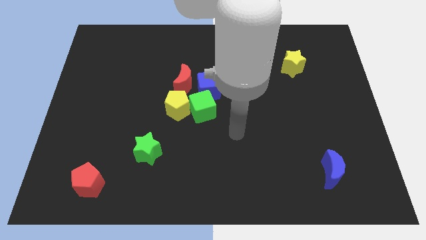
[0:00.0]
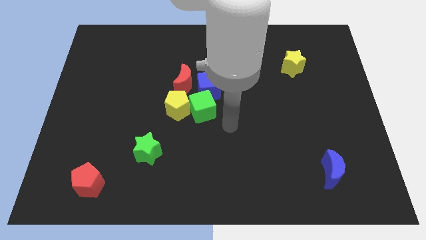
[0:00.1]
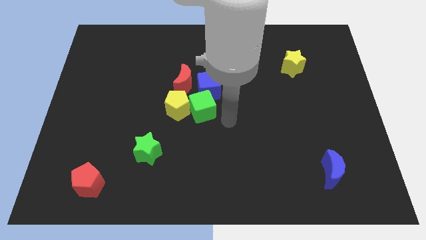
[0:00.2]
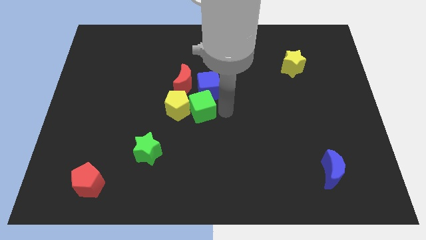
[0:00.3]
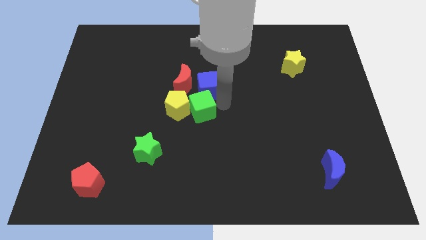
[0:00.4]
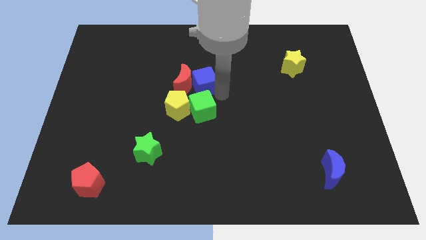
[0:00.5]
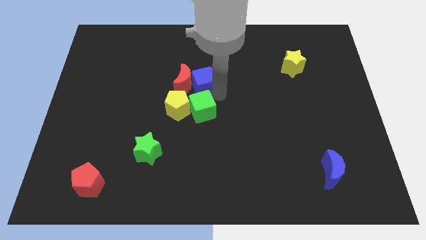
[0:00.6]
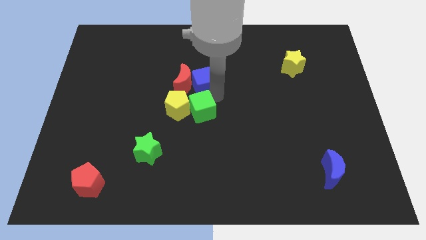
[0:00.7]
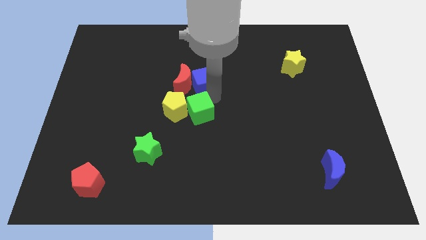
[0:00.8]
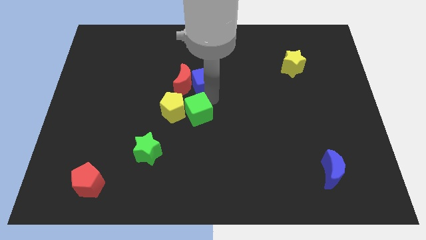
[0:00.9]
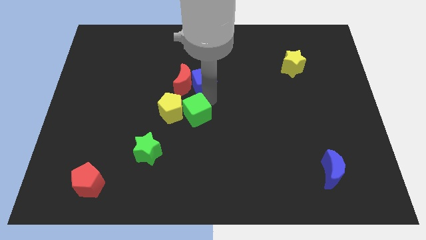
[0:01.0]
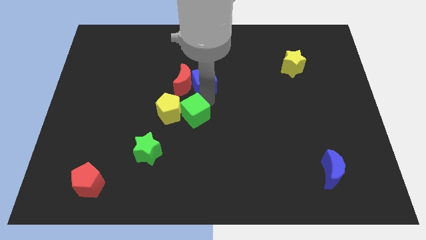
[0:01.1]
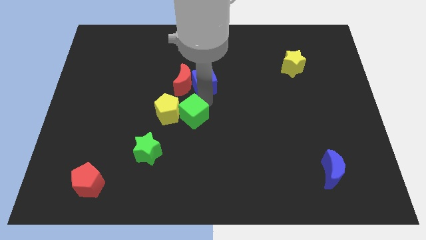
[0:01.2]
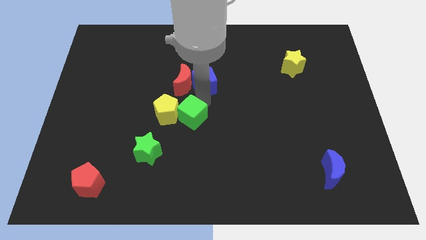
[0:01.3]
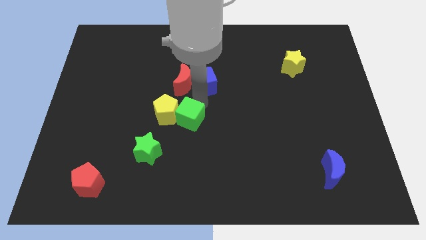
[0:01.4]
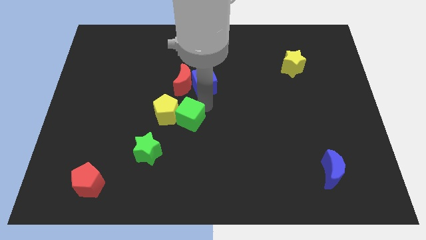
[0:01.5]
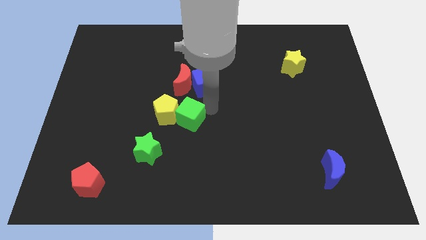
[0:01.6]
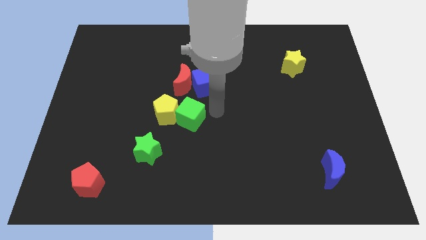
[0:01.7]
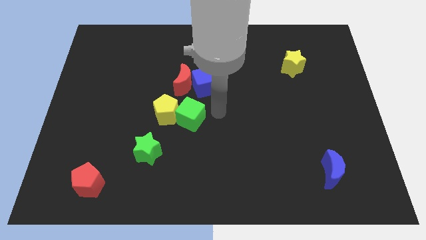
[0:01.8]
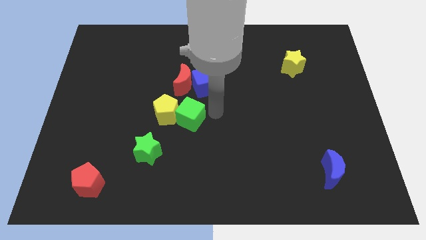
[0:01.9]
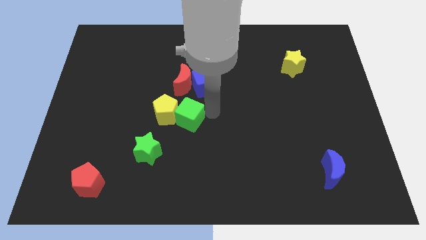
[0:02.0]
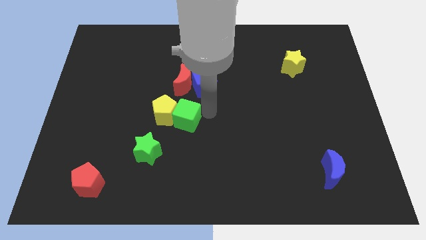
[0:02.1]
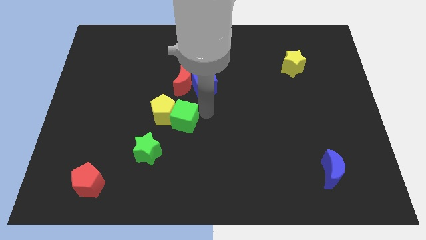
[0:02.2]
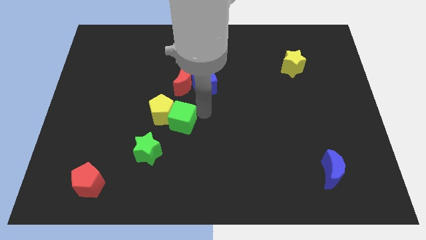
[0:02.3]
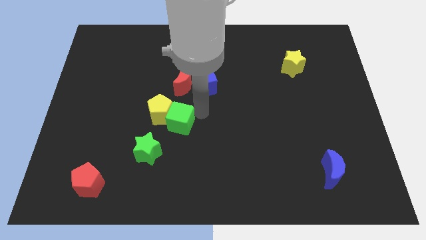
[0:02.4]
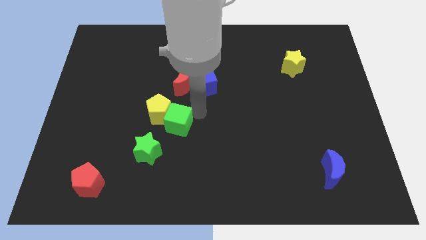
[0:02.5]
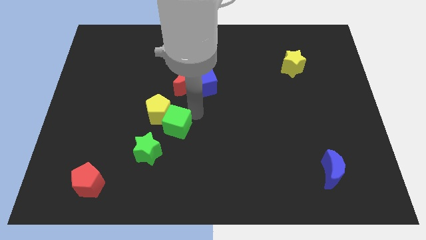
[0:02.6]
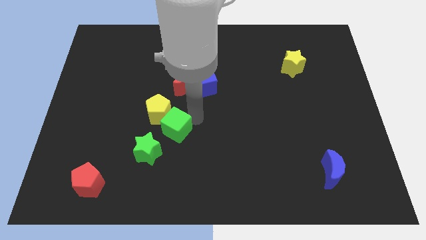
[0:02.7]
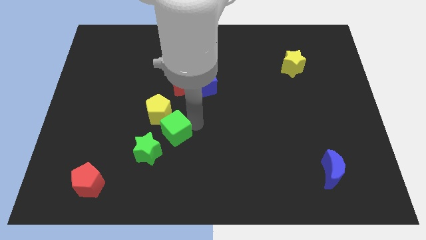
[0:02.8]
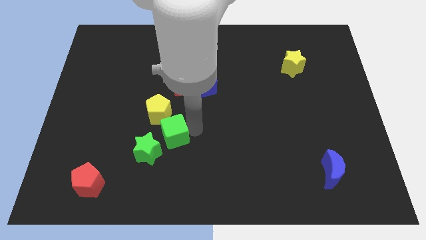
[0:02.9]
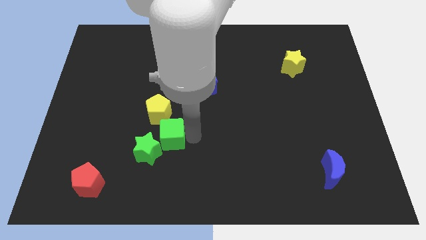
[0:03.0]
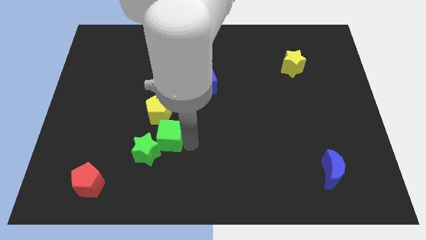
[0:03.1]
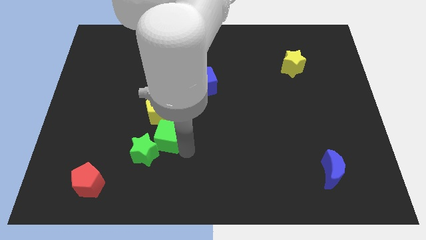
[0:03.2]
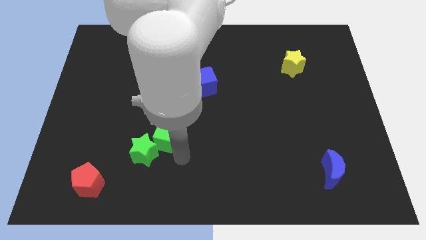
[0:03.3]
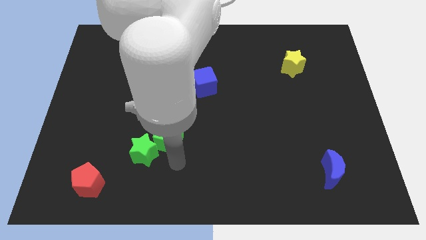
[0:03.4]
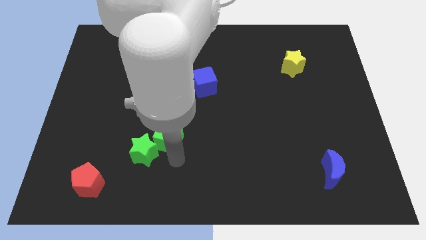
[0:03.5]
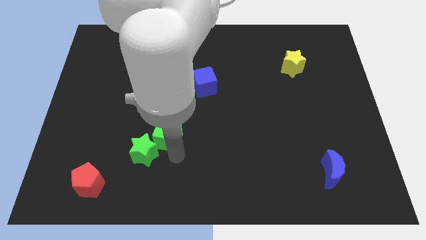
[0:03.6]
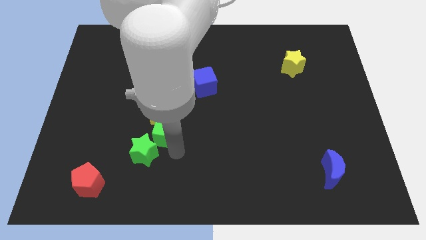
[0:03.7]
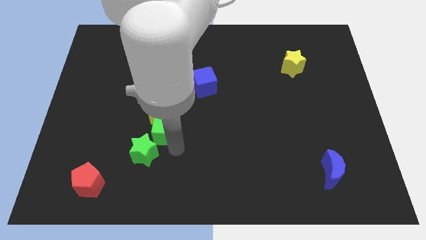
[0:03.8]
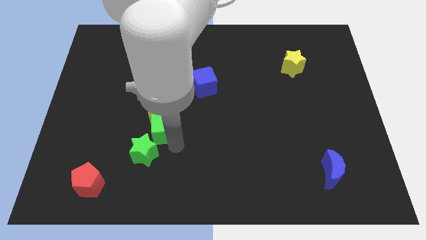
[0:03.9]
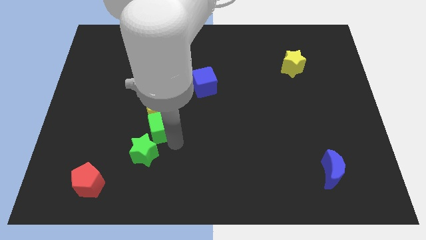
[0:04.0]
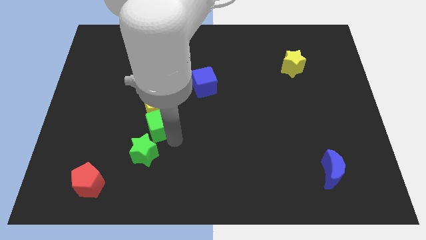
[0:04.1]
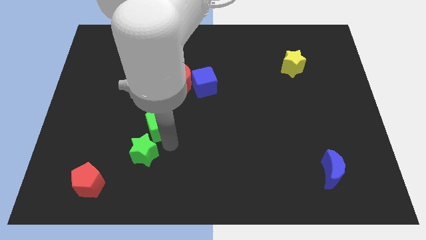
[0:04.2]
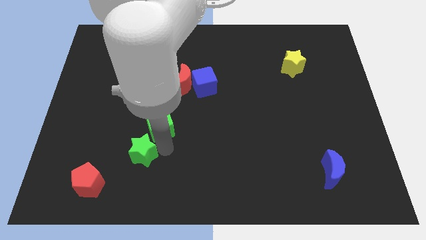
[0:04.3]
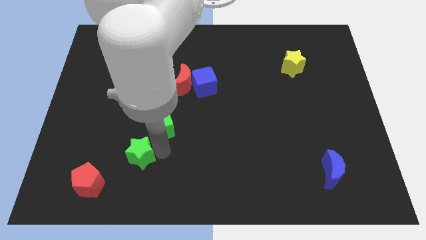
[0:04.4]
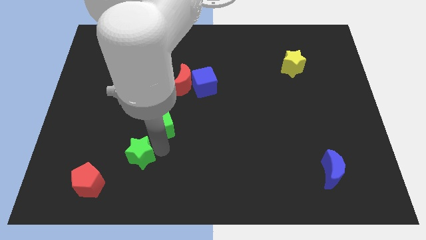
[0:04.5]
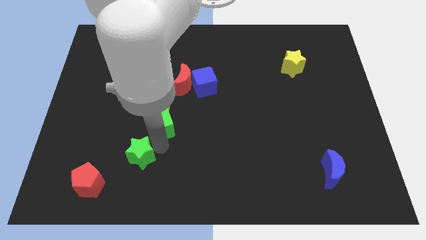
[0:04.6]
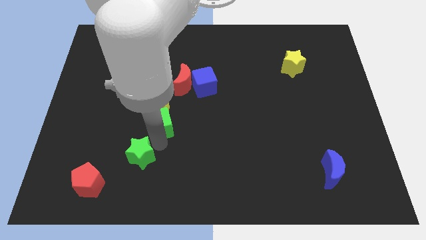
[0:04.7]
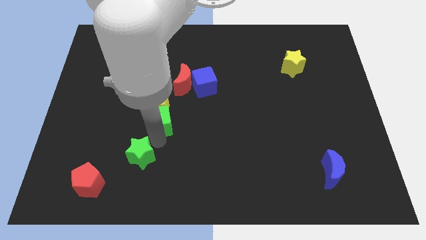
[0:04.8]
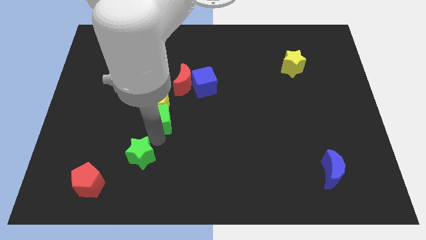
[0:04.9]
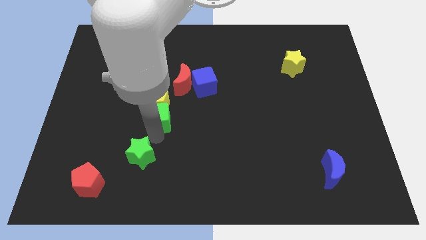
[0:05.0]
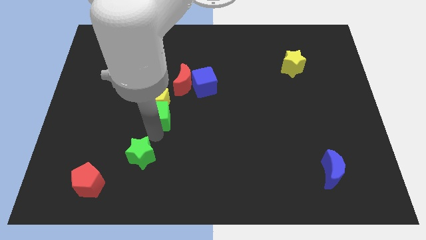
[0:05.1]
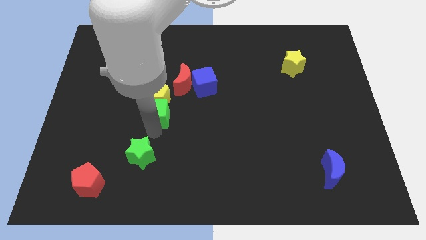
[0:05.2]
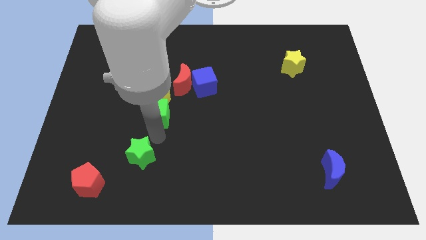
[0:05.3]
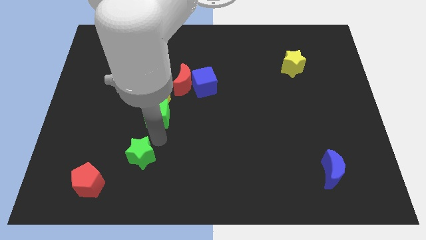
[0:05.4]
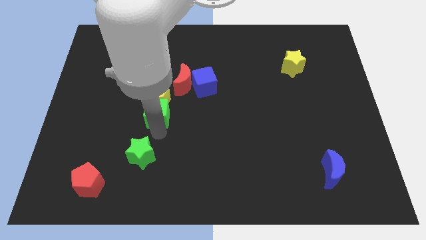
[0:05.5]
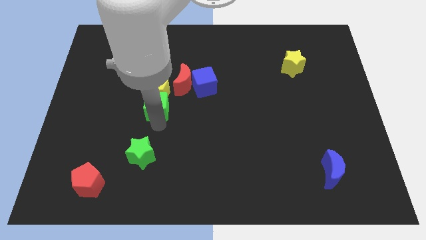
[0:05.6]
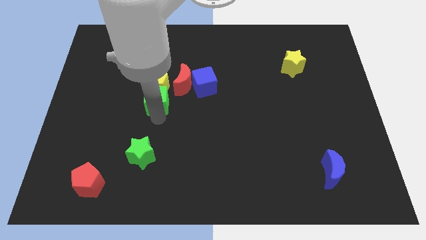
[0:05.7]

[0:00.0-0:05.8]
push the green cube upwards and then to the left somewhat

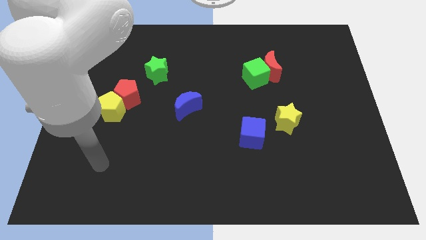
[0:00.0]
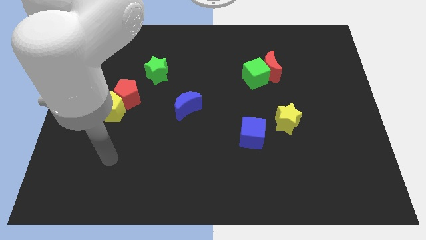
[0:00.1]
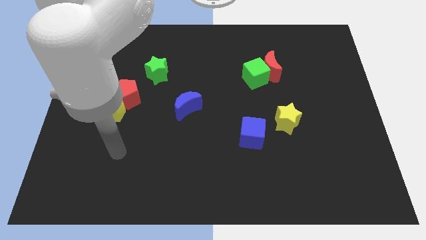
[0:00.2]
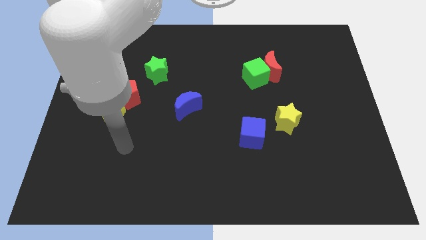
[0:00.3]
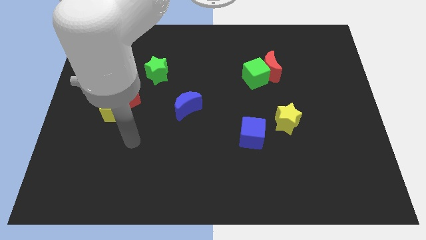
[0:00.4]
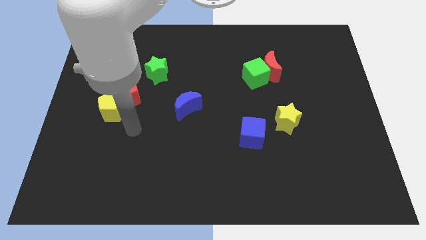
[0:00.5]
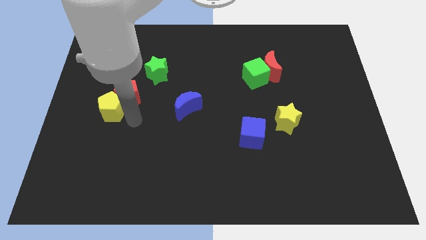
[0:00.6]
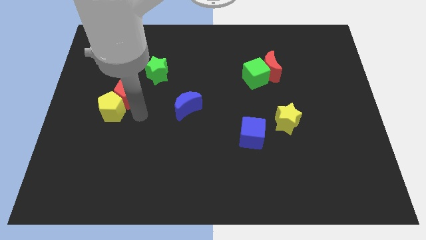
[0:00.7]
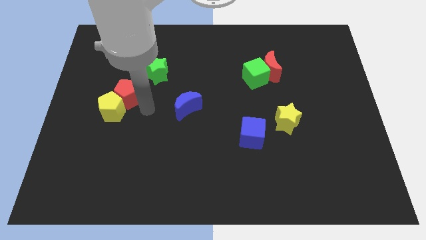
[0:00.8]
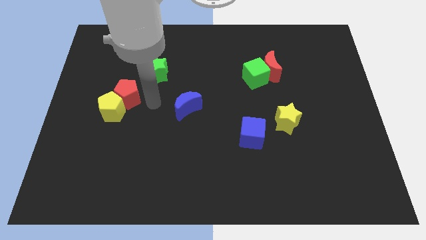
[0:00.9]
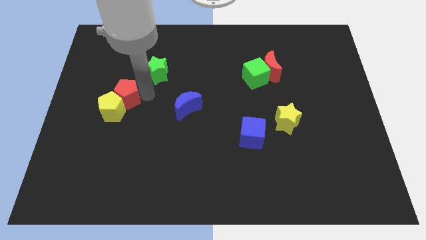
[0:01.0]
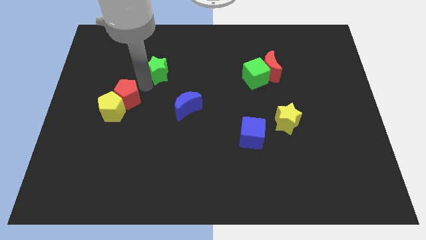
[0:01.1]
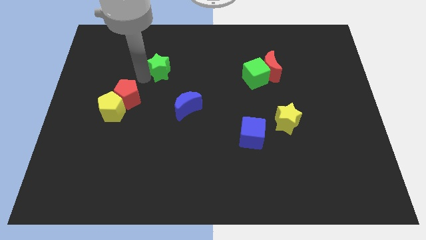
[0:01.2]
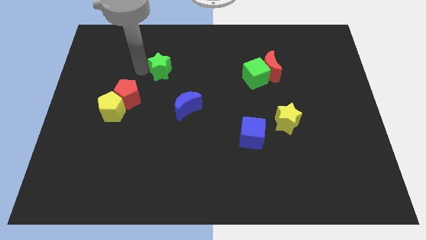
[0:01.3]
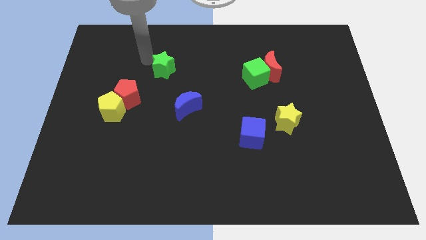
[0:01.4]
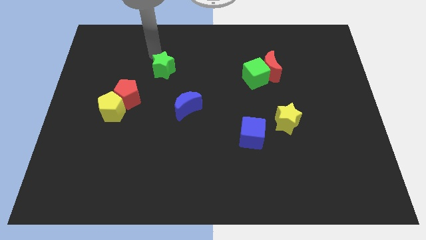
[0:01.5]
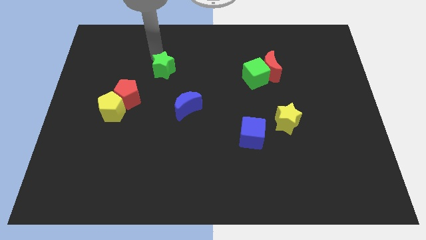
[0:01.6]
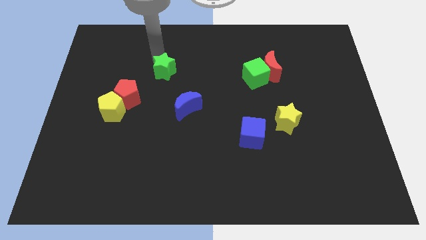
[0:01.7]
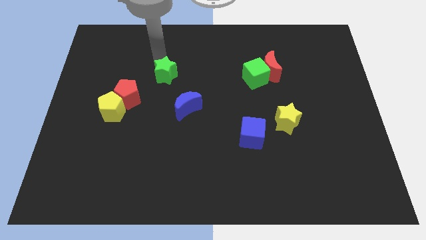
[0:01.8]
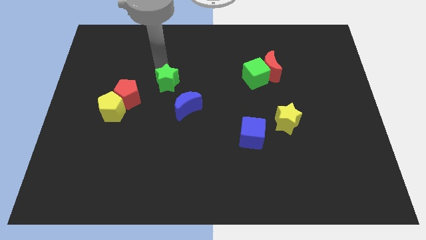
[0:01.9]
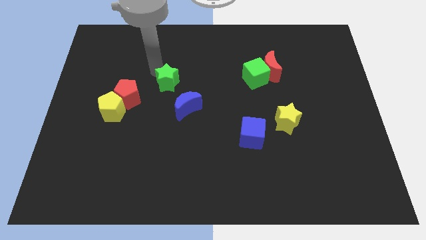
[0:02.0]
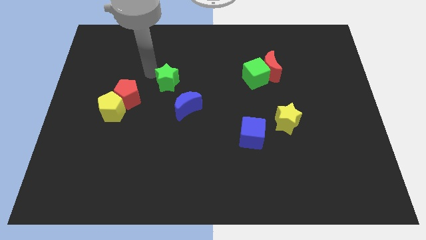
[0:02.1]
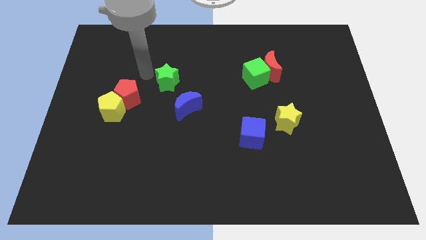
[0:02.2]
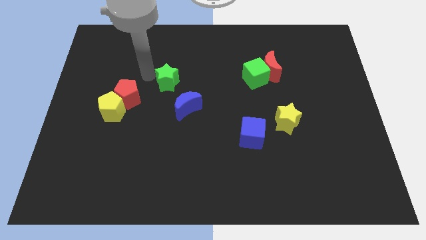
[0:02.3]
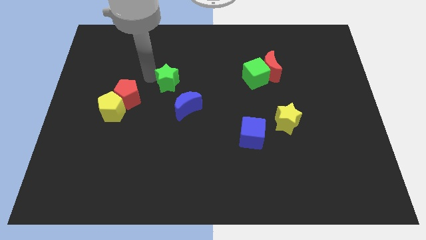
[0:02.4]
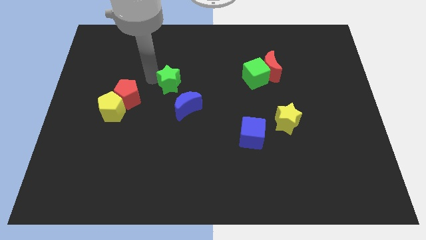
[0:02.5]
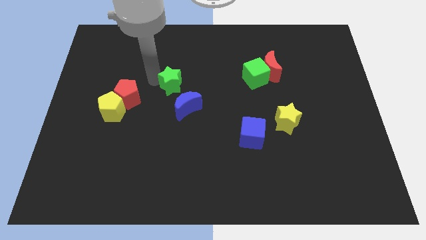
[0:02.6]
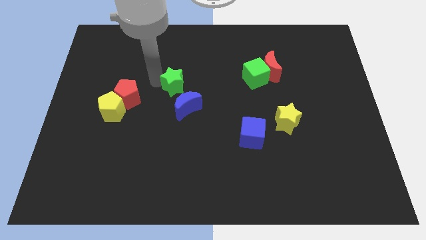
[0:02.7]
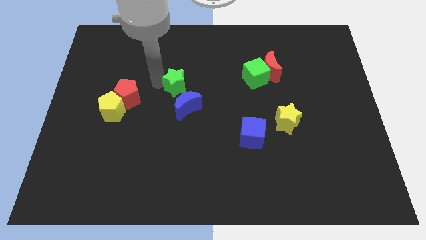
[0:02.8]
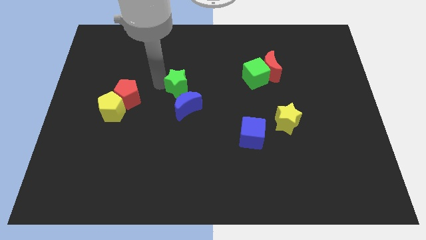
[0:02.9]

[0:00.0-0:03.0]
move the green star downwards and to the right diagonally a little
